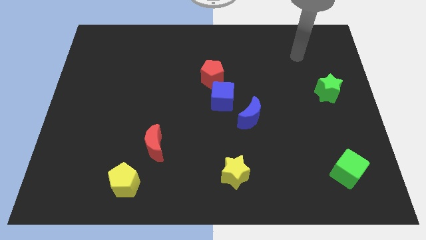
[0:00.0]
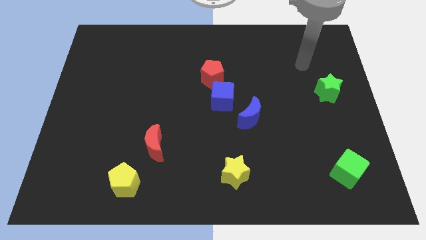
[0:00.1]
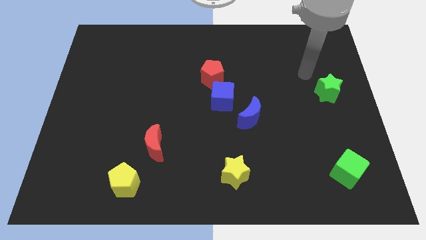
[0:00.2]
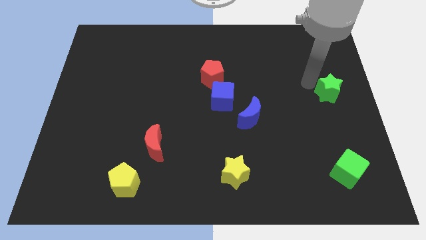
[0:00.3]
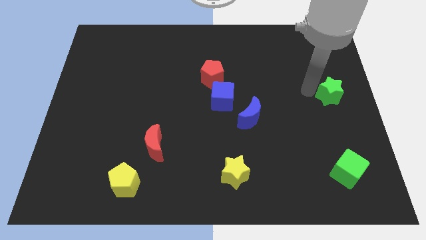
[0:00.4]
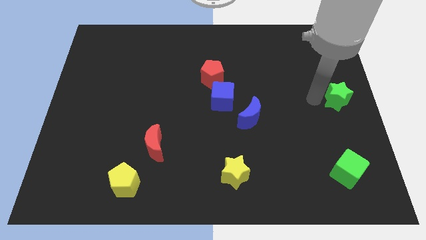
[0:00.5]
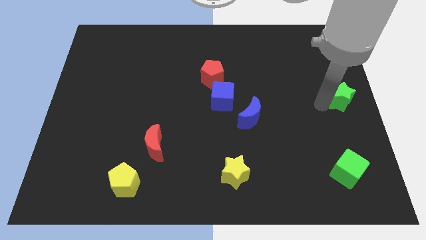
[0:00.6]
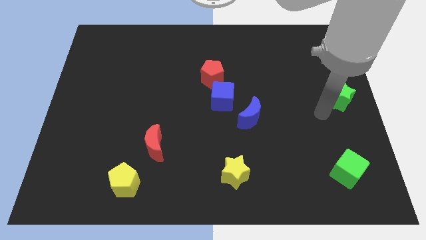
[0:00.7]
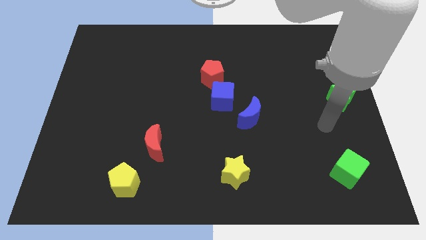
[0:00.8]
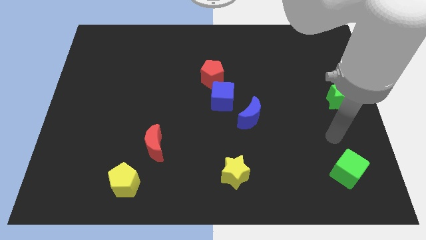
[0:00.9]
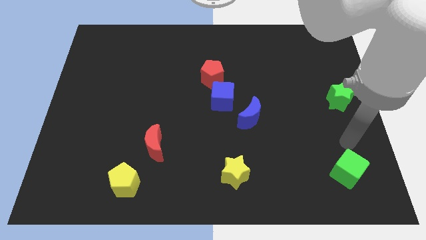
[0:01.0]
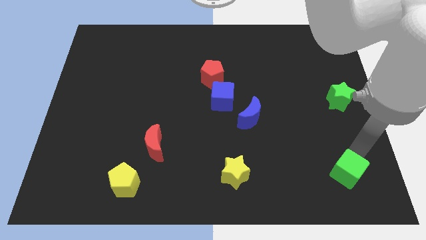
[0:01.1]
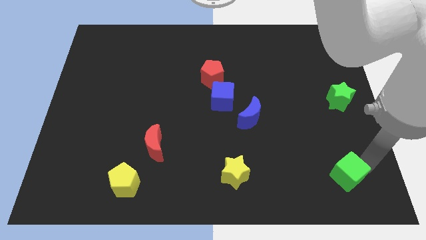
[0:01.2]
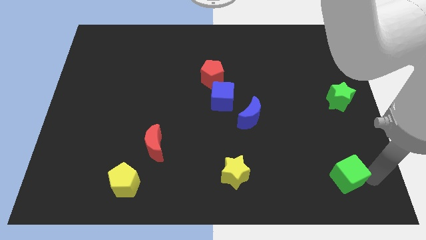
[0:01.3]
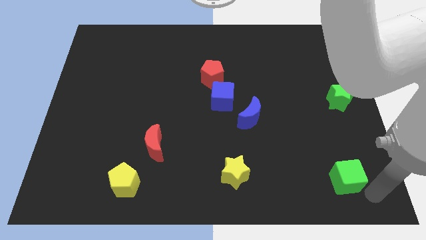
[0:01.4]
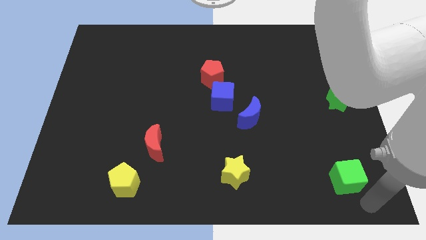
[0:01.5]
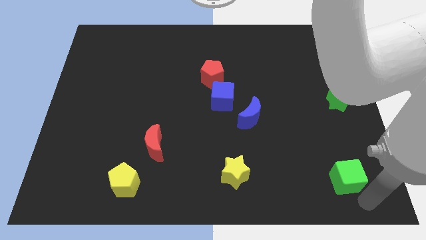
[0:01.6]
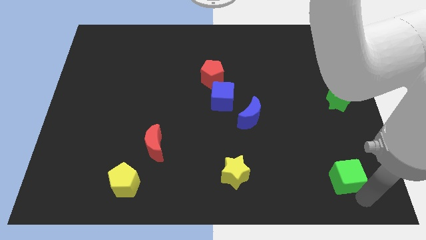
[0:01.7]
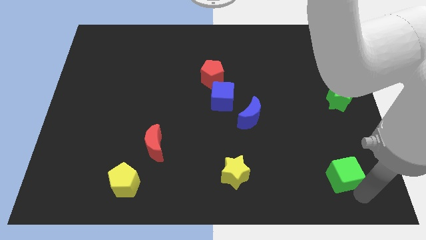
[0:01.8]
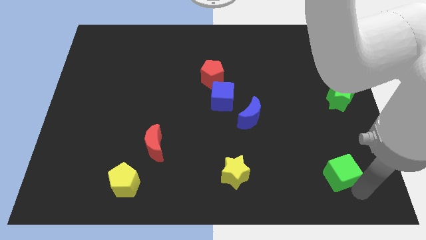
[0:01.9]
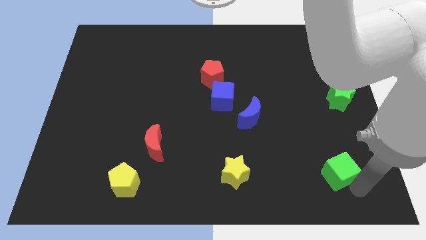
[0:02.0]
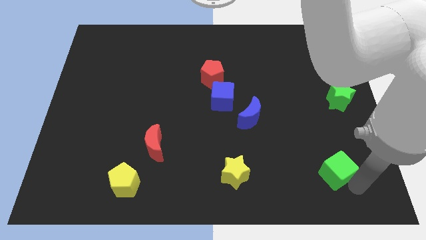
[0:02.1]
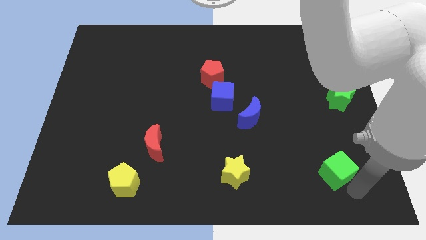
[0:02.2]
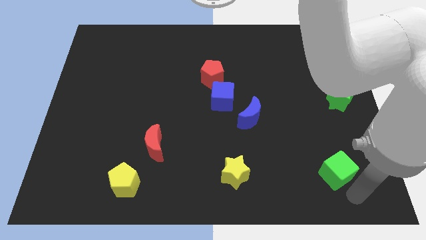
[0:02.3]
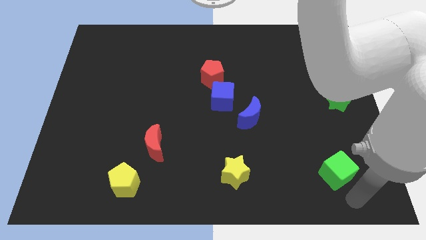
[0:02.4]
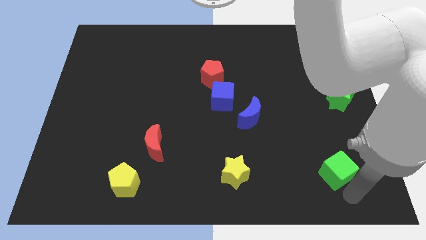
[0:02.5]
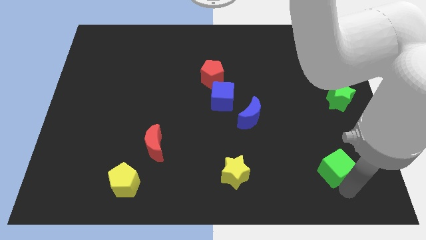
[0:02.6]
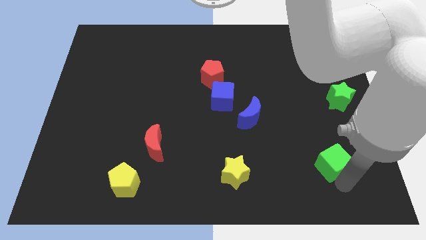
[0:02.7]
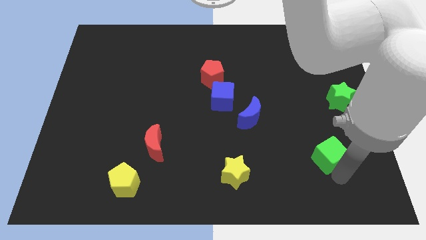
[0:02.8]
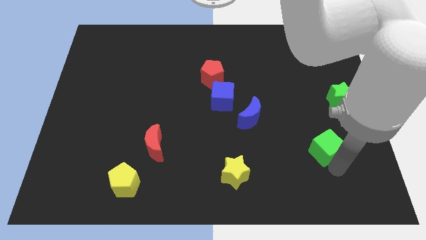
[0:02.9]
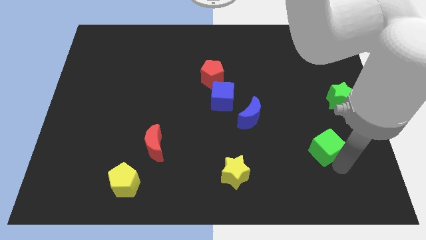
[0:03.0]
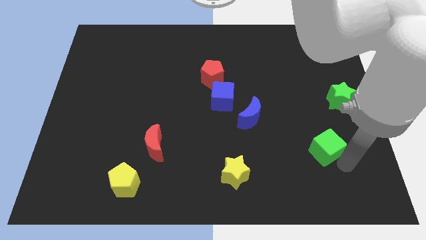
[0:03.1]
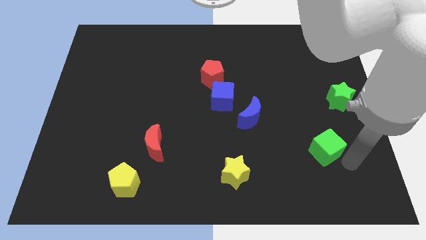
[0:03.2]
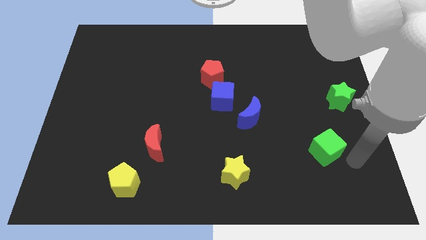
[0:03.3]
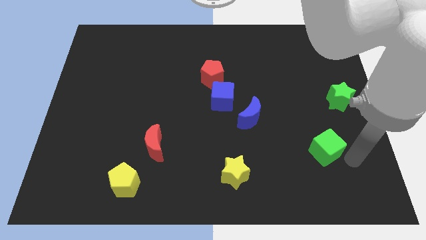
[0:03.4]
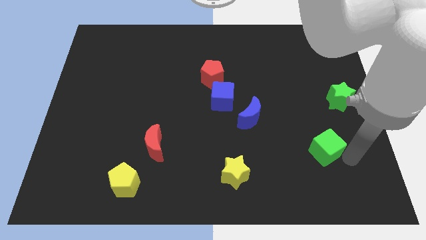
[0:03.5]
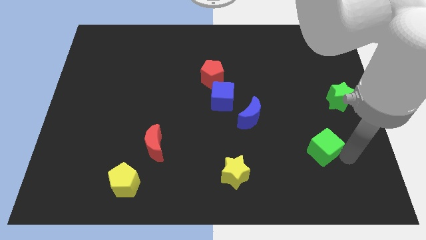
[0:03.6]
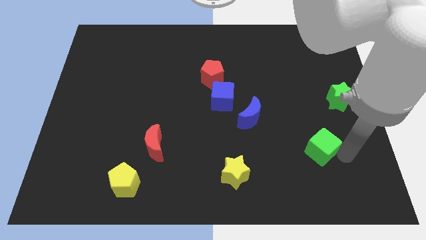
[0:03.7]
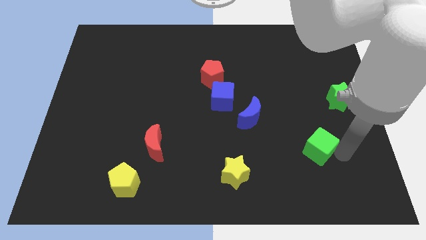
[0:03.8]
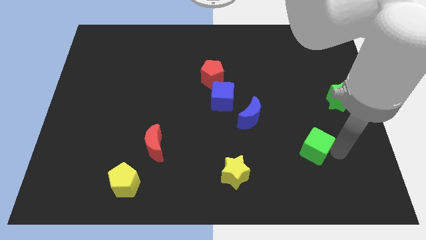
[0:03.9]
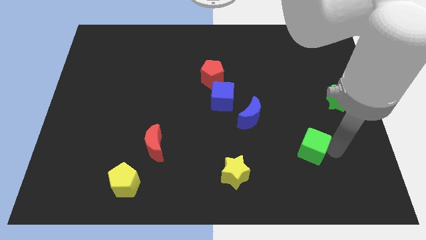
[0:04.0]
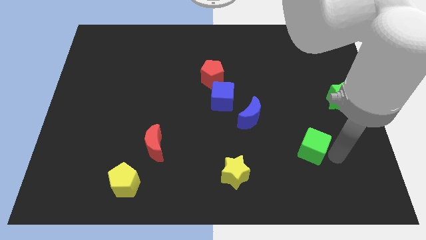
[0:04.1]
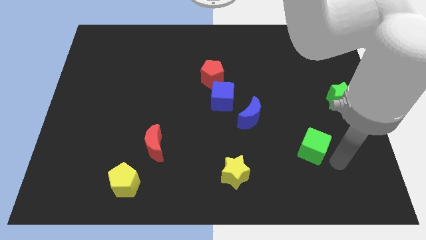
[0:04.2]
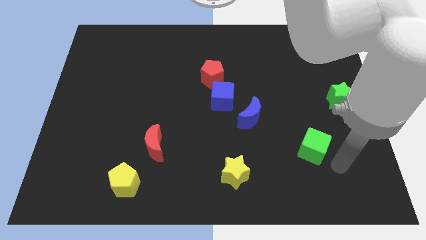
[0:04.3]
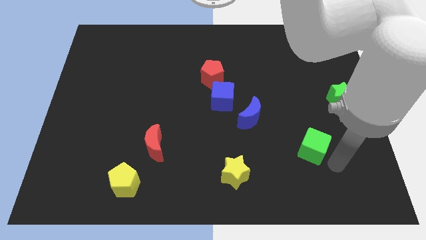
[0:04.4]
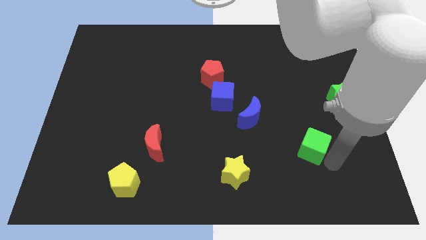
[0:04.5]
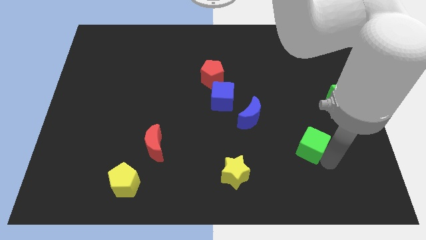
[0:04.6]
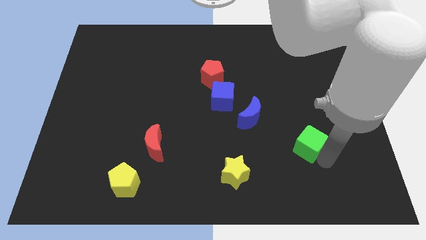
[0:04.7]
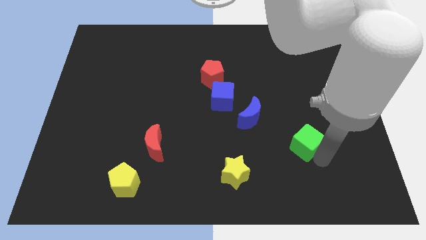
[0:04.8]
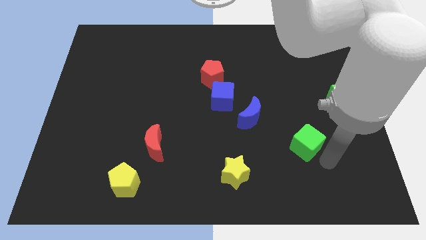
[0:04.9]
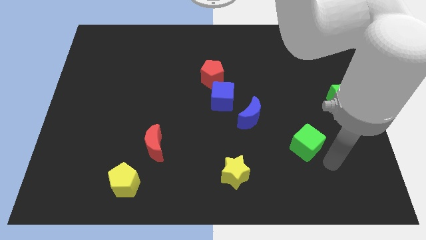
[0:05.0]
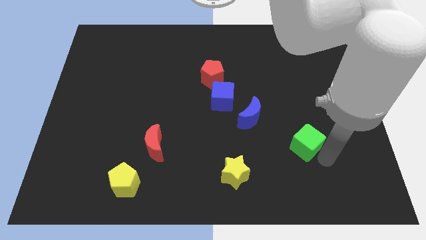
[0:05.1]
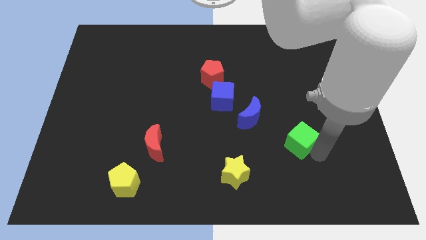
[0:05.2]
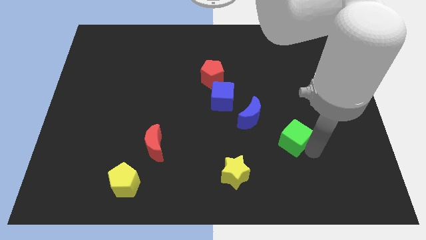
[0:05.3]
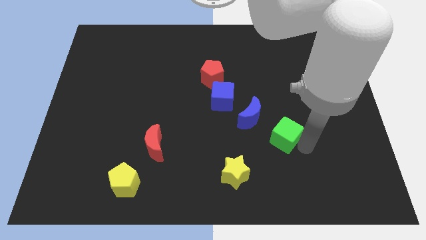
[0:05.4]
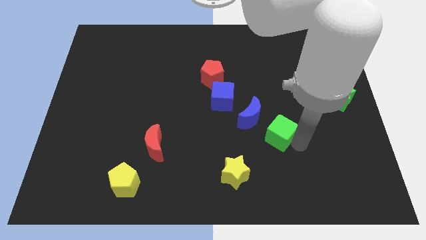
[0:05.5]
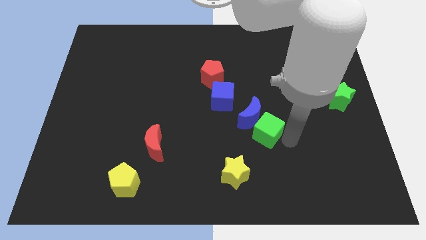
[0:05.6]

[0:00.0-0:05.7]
put the green cube towards the blue moon

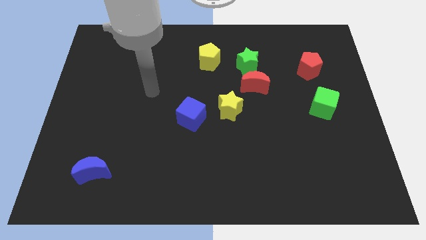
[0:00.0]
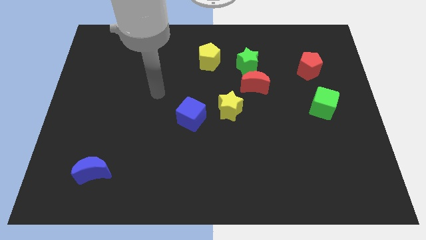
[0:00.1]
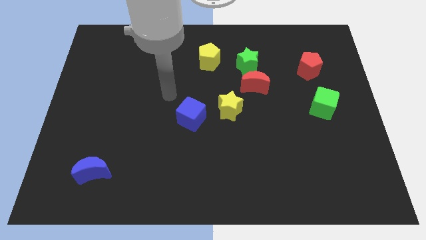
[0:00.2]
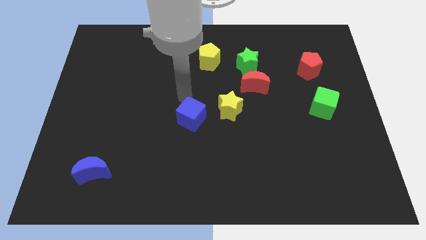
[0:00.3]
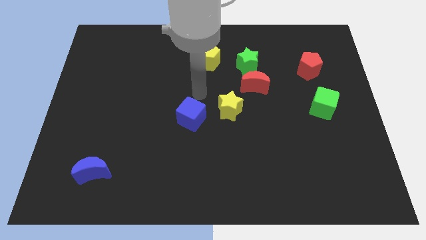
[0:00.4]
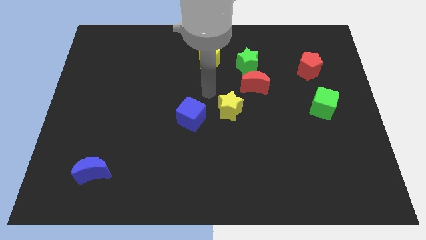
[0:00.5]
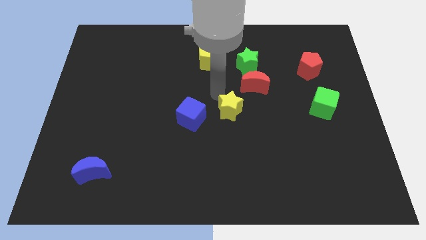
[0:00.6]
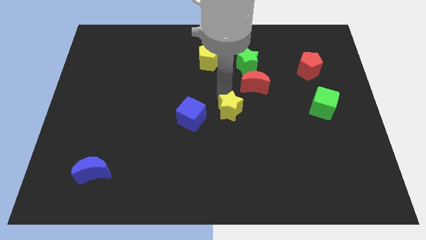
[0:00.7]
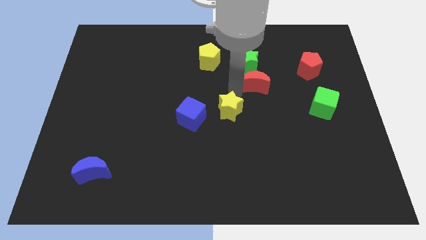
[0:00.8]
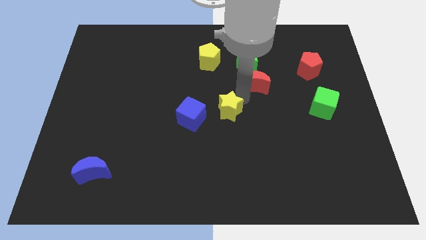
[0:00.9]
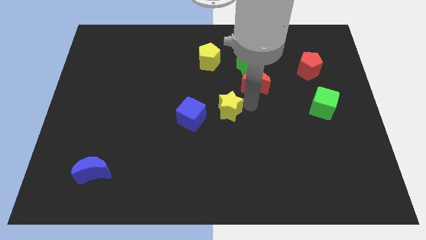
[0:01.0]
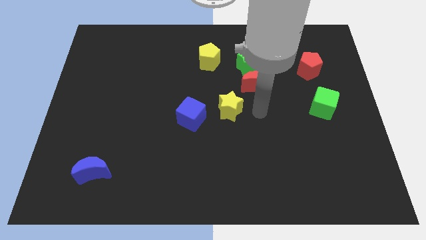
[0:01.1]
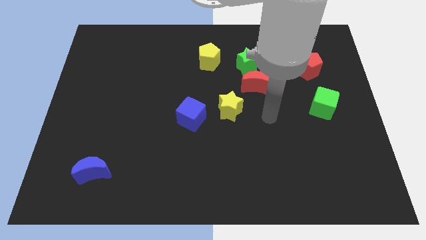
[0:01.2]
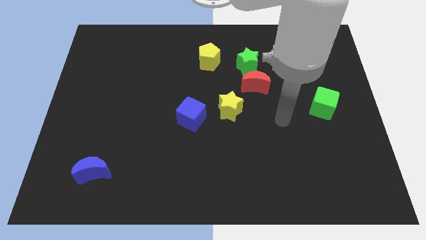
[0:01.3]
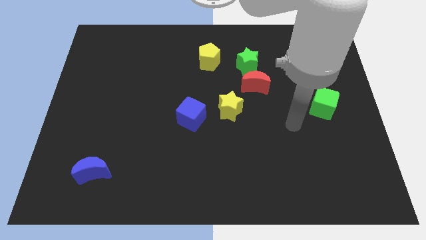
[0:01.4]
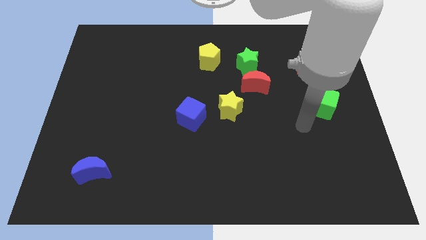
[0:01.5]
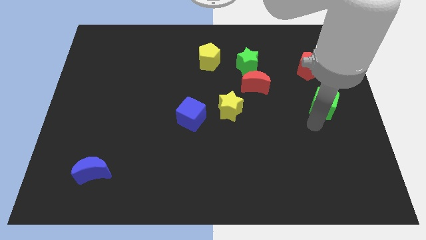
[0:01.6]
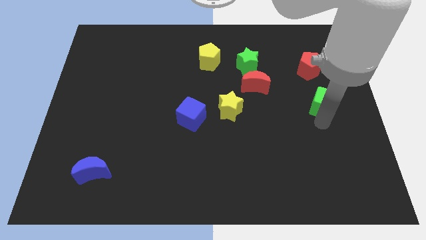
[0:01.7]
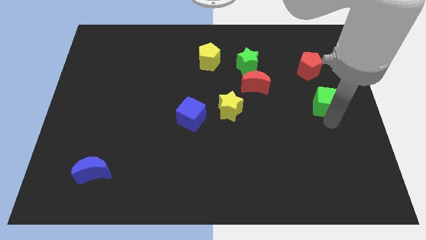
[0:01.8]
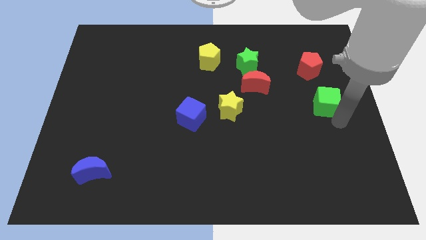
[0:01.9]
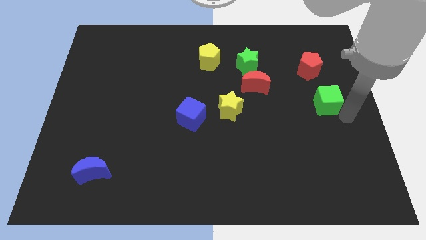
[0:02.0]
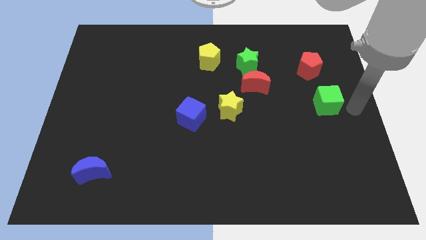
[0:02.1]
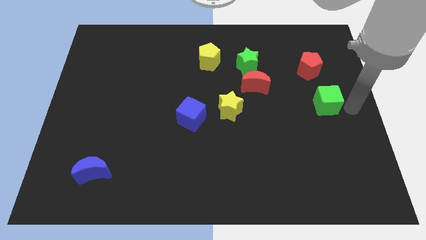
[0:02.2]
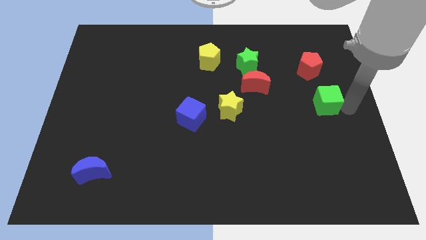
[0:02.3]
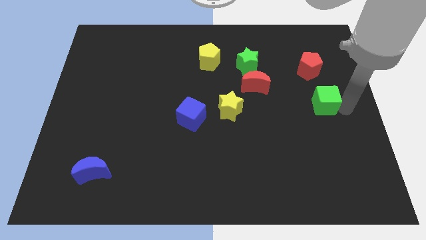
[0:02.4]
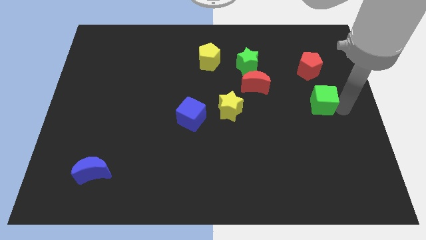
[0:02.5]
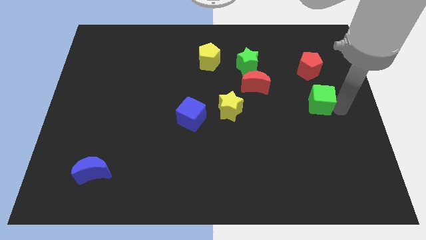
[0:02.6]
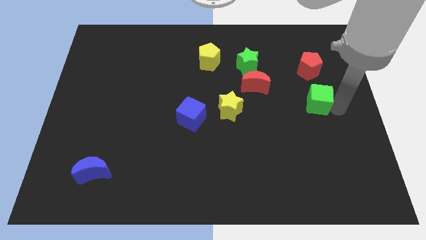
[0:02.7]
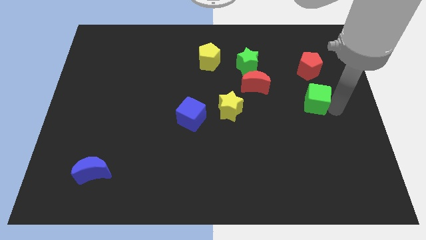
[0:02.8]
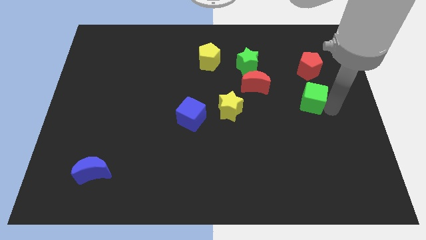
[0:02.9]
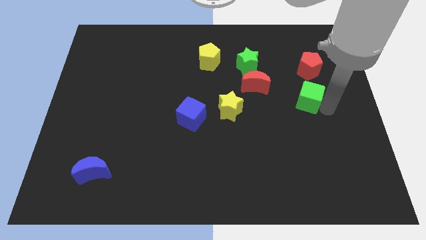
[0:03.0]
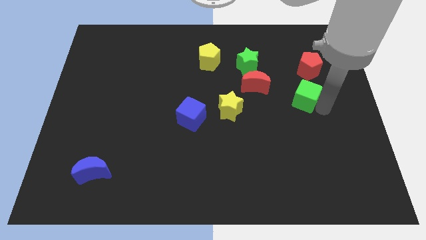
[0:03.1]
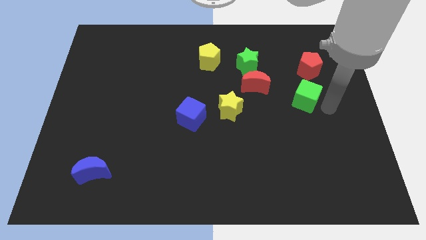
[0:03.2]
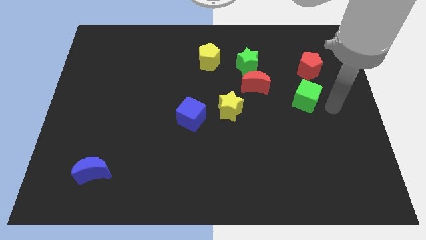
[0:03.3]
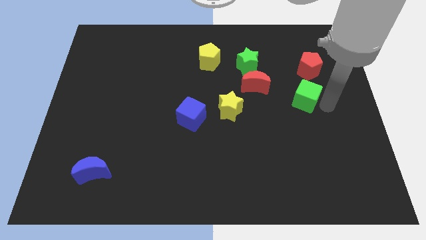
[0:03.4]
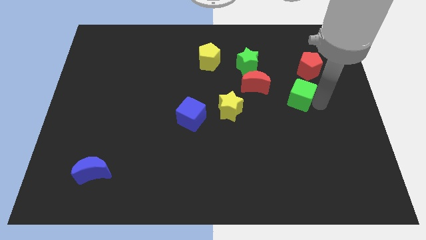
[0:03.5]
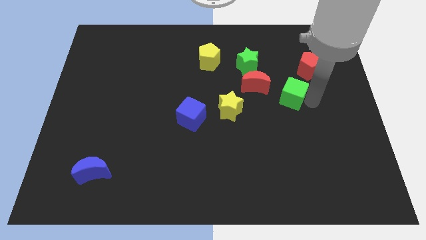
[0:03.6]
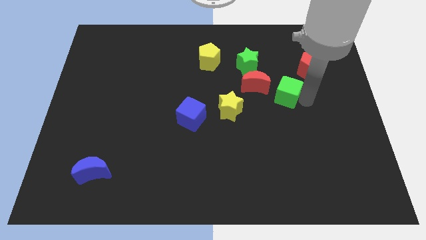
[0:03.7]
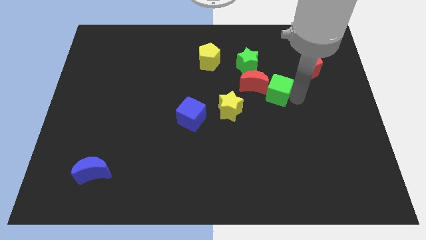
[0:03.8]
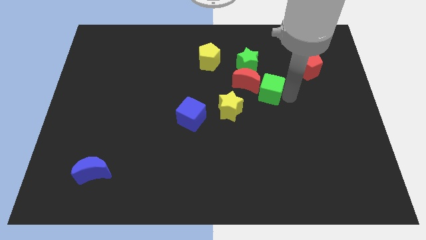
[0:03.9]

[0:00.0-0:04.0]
push the green cube next to the red moon
